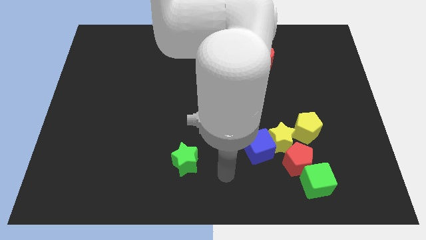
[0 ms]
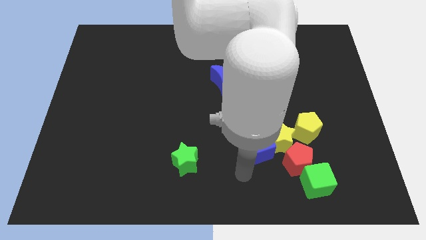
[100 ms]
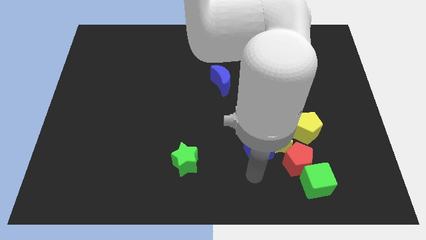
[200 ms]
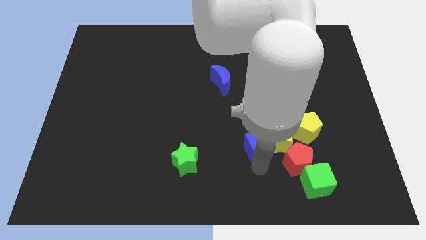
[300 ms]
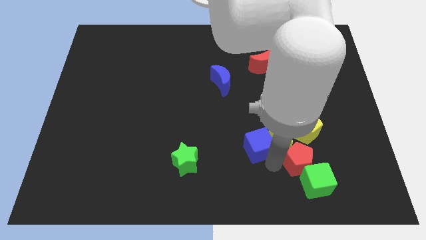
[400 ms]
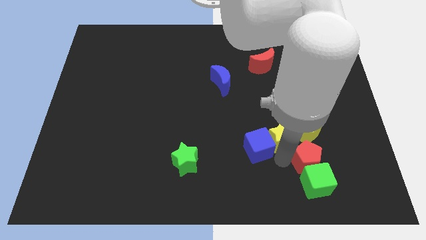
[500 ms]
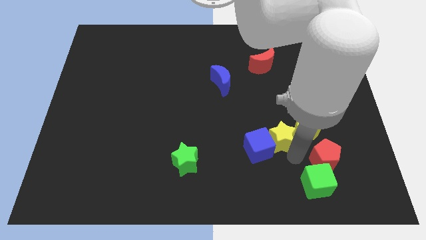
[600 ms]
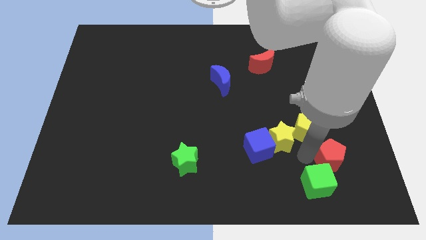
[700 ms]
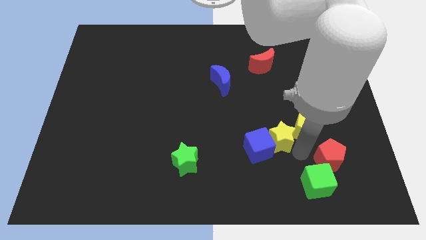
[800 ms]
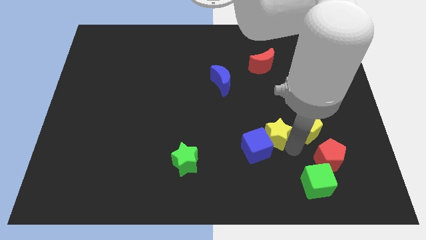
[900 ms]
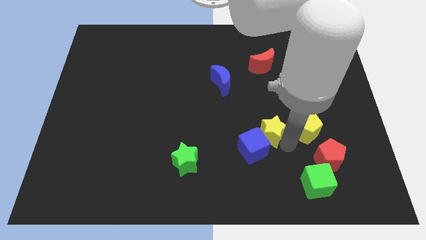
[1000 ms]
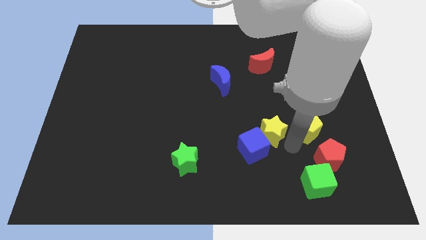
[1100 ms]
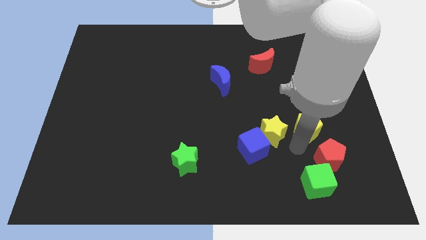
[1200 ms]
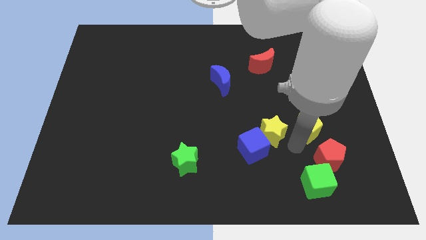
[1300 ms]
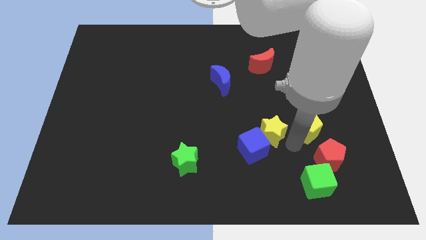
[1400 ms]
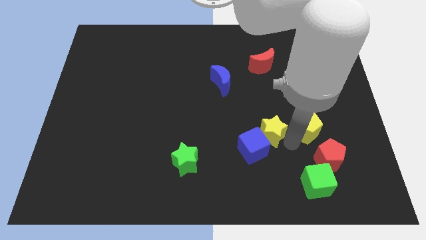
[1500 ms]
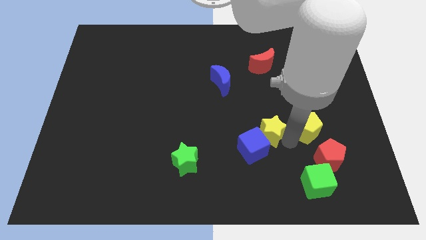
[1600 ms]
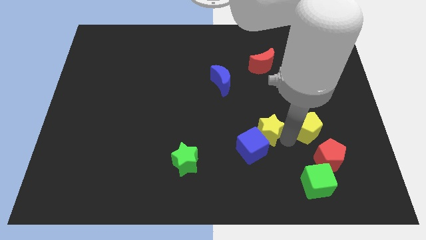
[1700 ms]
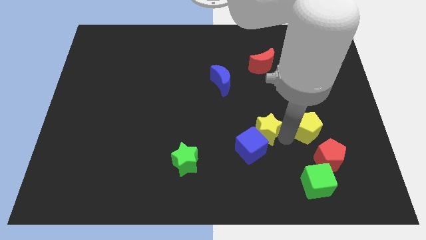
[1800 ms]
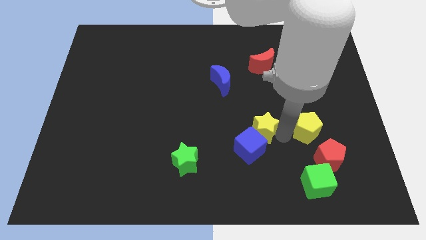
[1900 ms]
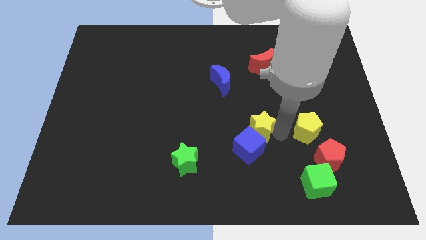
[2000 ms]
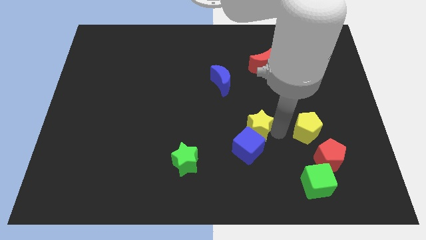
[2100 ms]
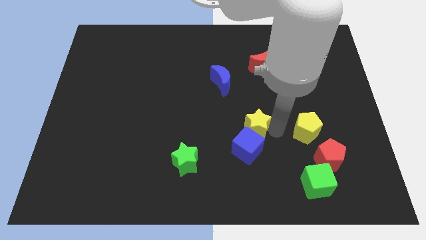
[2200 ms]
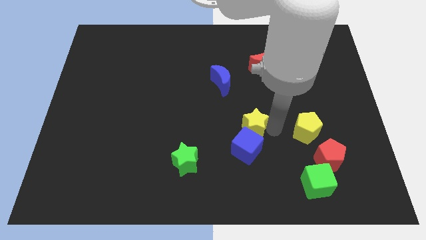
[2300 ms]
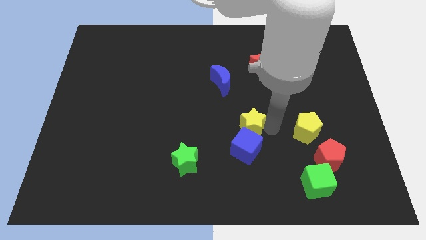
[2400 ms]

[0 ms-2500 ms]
separate the yellow star from the group

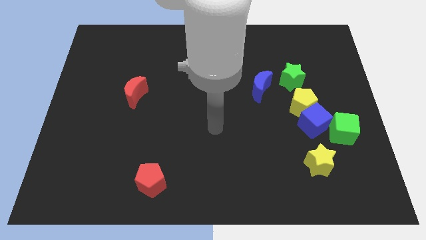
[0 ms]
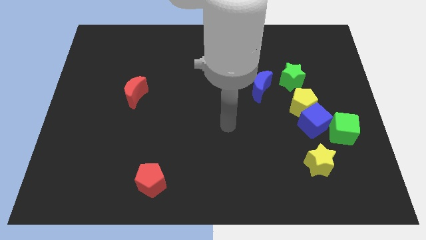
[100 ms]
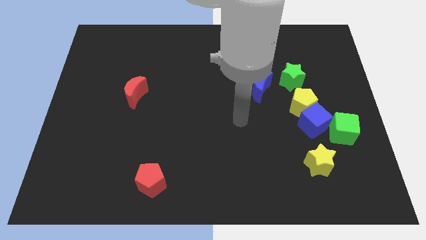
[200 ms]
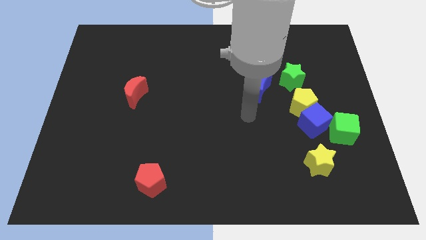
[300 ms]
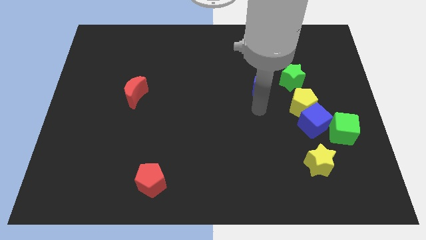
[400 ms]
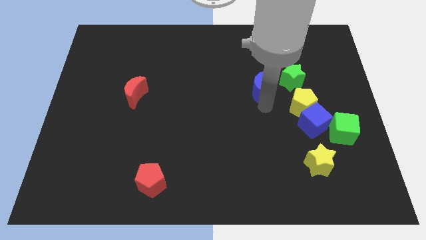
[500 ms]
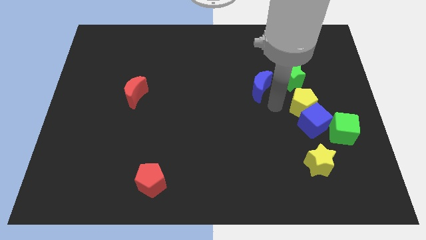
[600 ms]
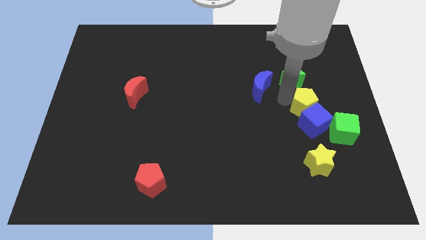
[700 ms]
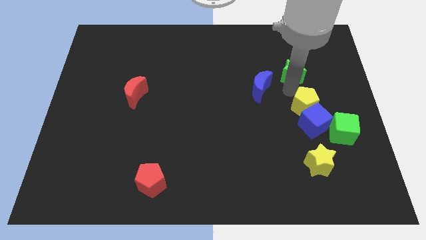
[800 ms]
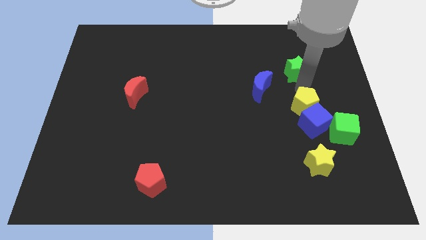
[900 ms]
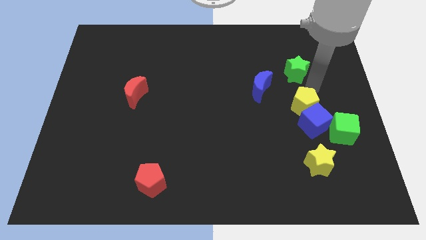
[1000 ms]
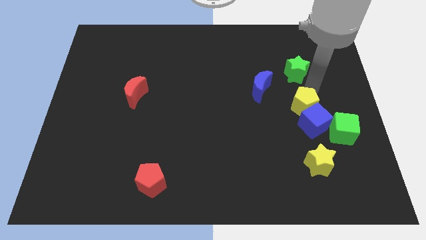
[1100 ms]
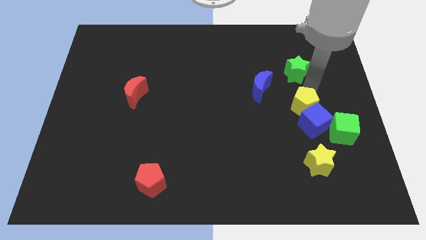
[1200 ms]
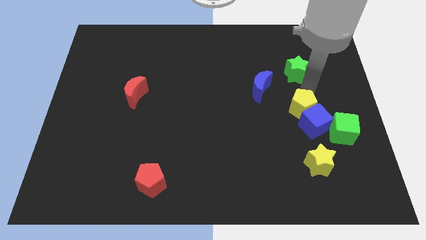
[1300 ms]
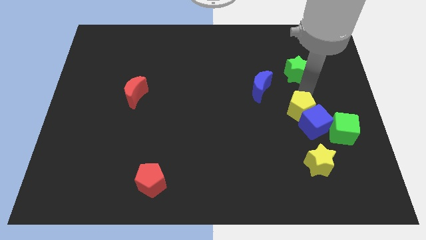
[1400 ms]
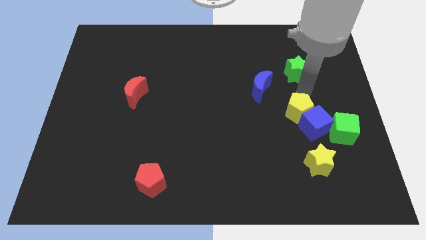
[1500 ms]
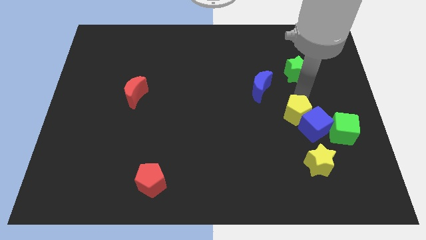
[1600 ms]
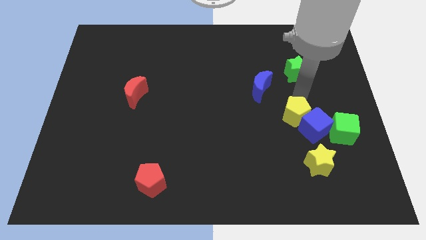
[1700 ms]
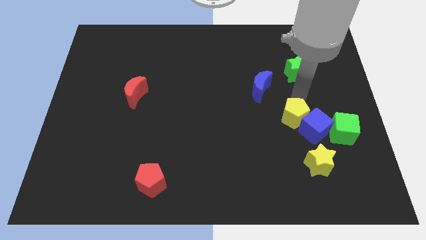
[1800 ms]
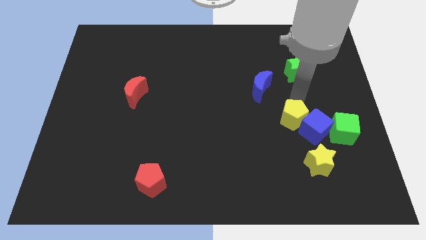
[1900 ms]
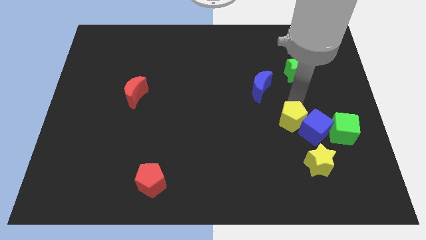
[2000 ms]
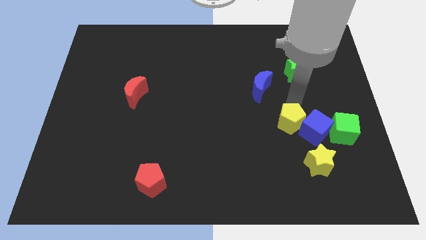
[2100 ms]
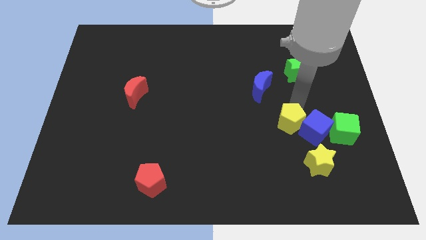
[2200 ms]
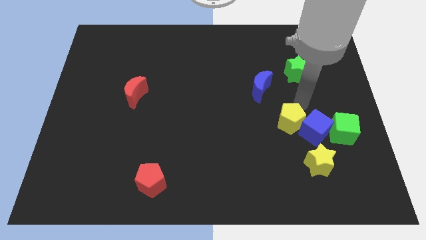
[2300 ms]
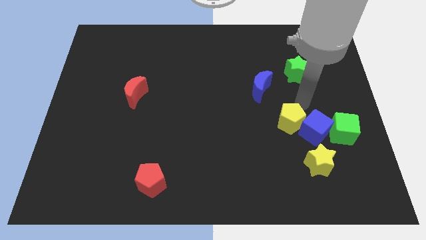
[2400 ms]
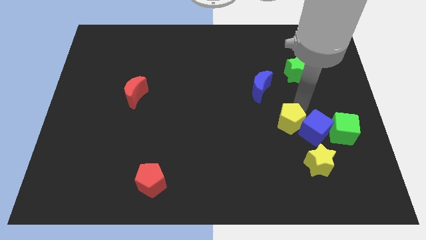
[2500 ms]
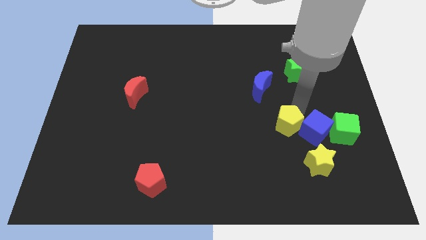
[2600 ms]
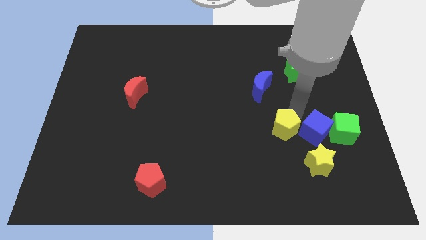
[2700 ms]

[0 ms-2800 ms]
move the yellow pentagon away from the blue cube and green star

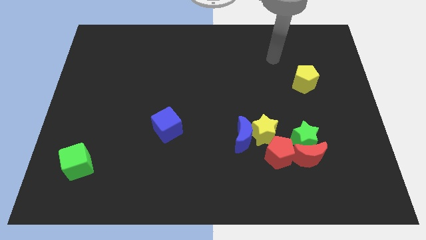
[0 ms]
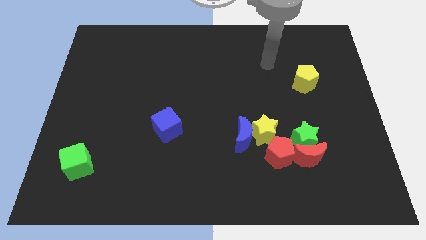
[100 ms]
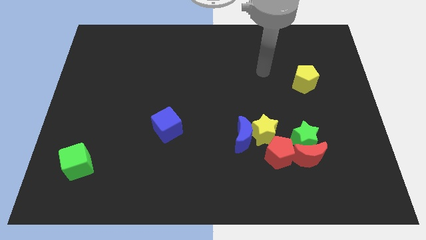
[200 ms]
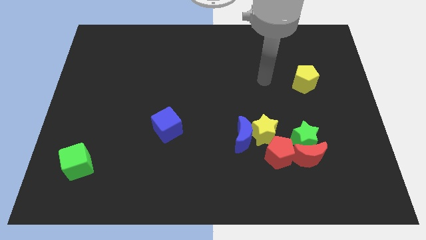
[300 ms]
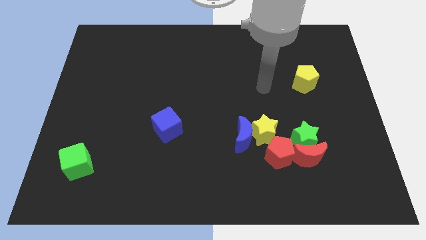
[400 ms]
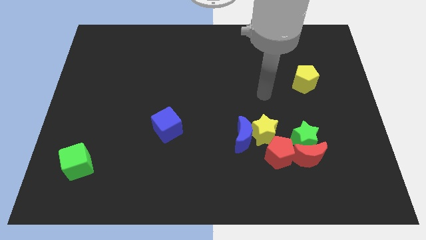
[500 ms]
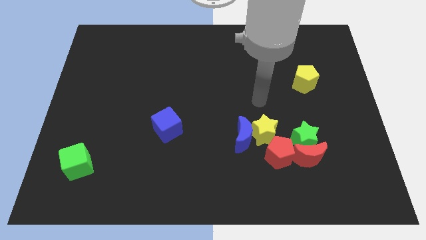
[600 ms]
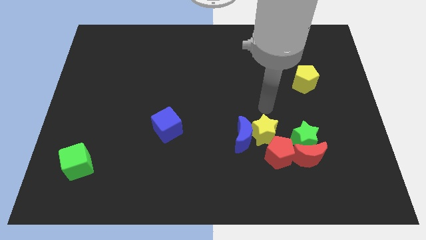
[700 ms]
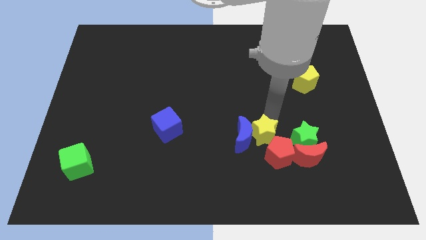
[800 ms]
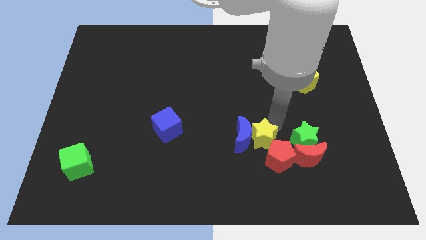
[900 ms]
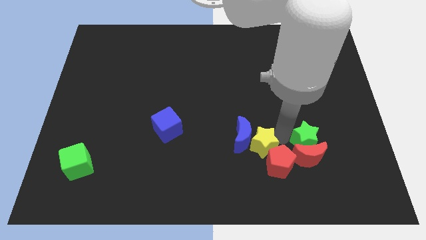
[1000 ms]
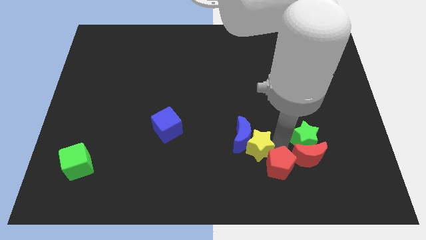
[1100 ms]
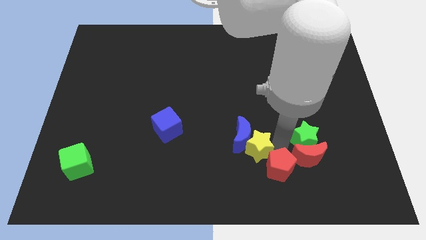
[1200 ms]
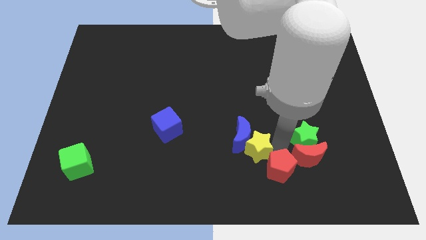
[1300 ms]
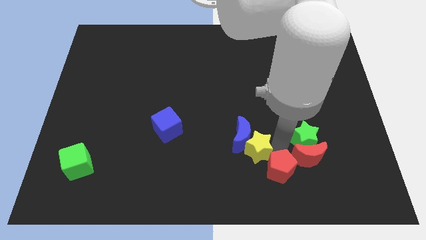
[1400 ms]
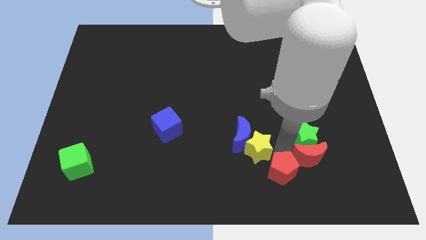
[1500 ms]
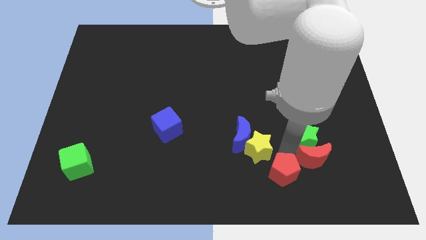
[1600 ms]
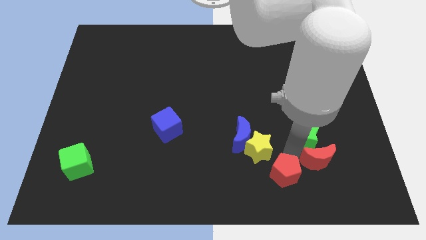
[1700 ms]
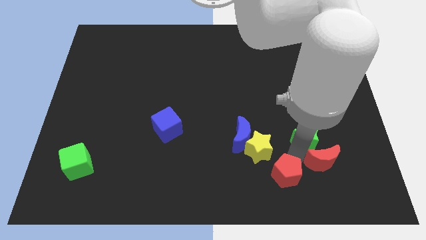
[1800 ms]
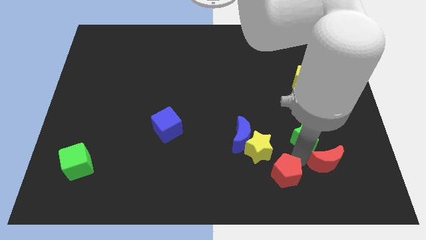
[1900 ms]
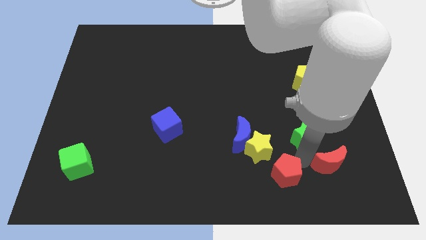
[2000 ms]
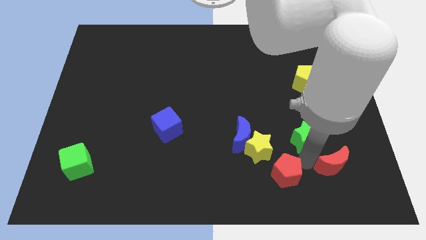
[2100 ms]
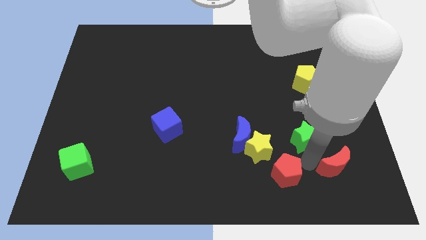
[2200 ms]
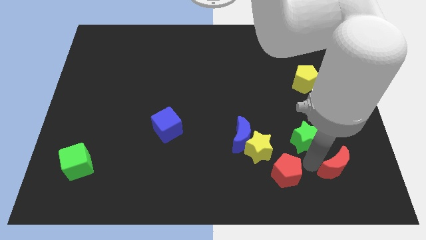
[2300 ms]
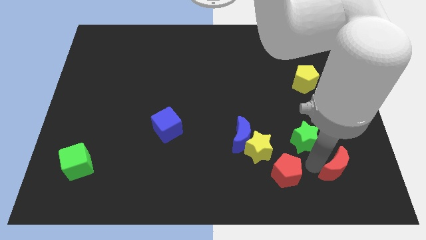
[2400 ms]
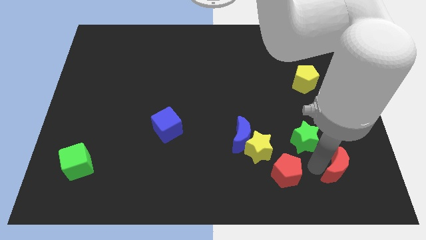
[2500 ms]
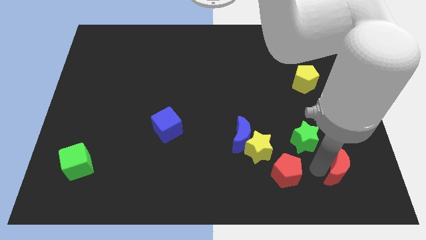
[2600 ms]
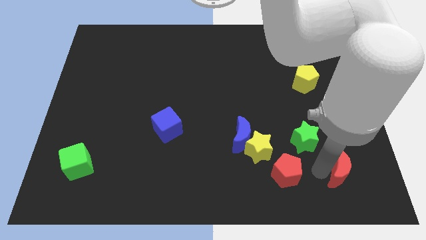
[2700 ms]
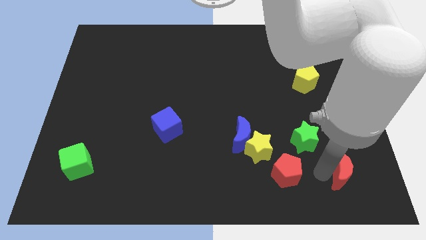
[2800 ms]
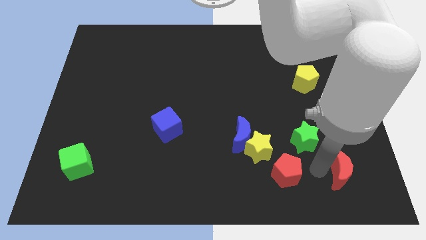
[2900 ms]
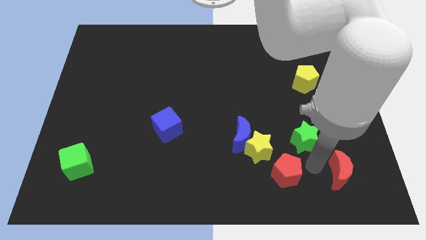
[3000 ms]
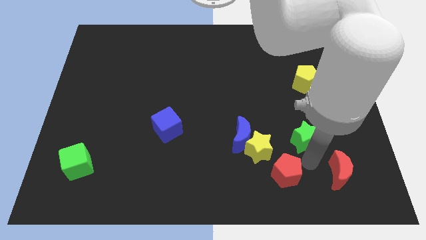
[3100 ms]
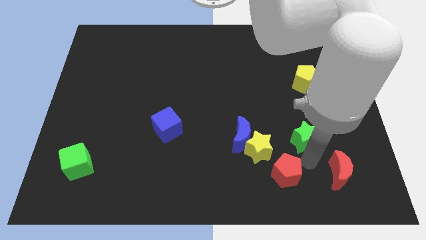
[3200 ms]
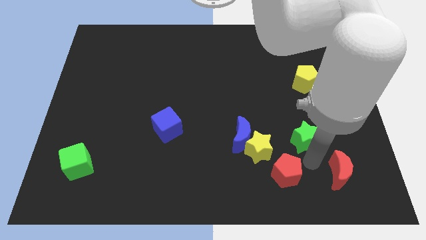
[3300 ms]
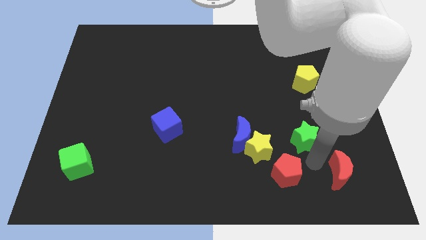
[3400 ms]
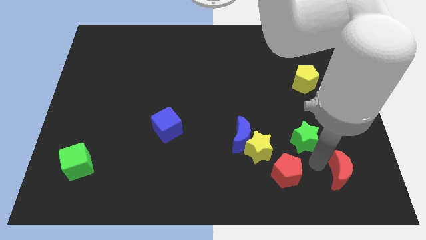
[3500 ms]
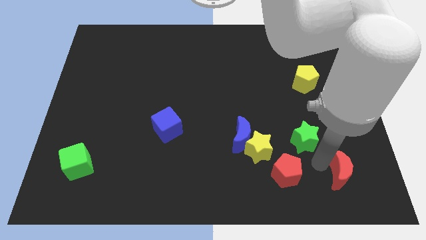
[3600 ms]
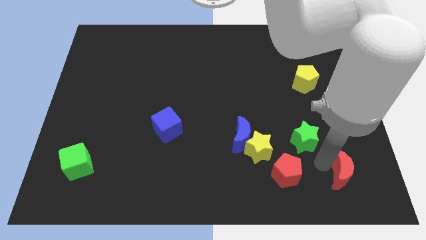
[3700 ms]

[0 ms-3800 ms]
move the red moon away from the green star and red pentagon

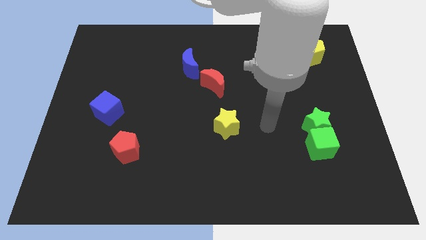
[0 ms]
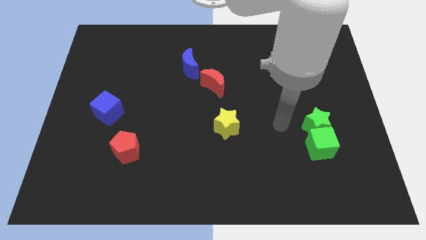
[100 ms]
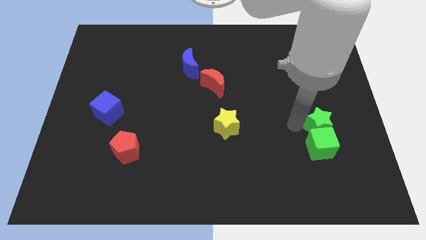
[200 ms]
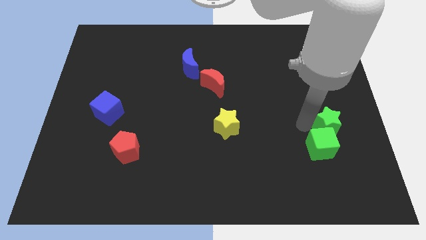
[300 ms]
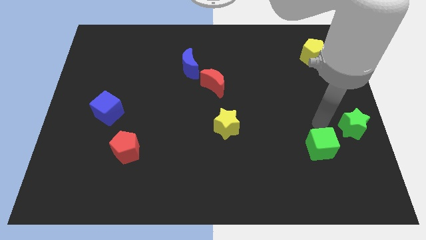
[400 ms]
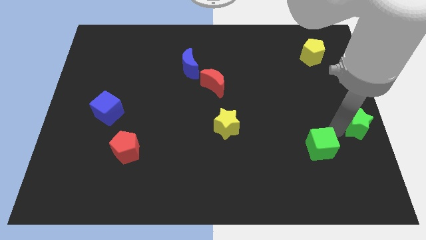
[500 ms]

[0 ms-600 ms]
move the green cube away from the green star
